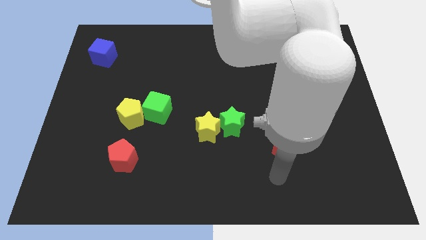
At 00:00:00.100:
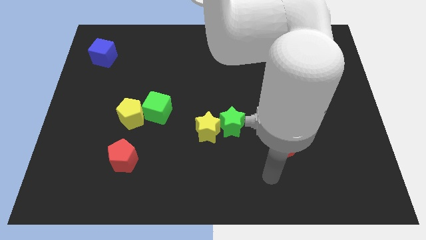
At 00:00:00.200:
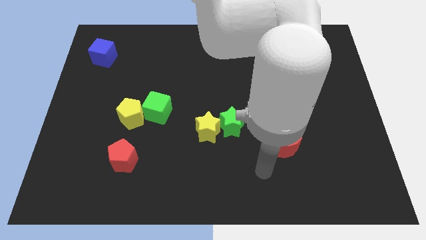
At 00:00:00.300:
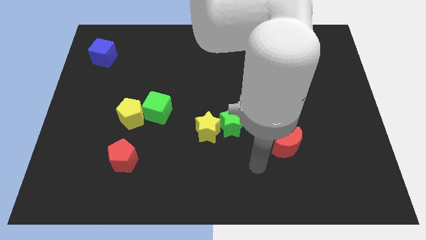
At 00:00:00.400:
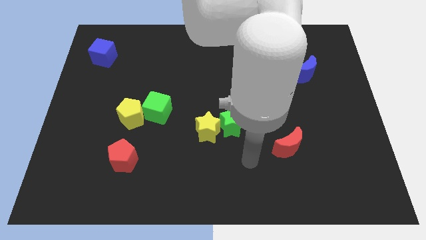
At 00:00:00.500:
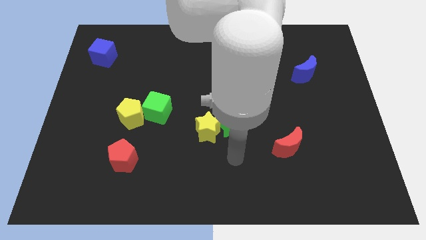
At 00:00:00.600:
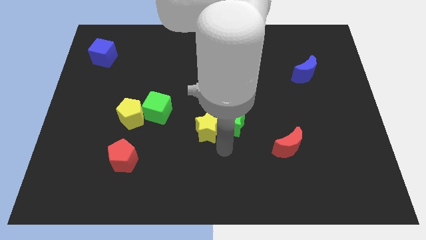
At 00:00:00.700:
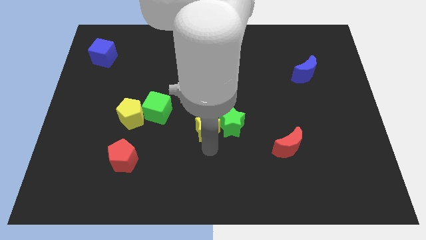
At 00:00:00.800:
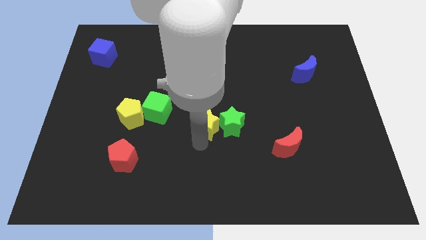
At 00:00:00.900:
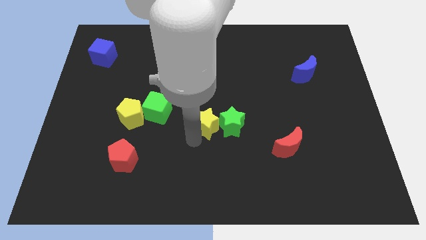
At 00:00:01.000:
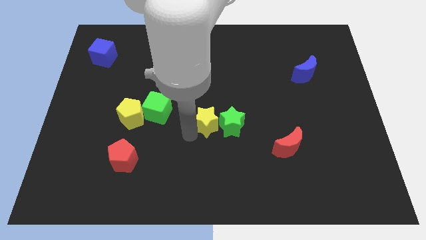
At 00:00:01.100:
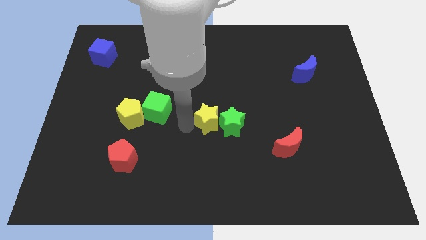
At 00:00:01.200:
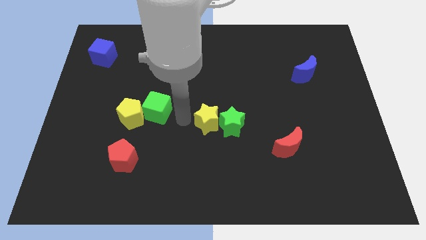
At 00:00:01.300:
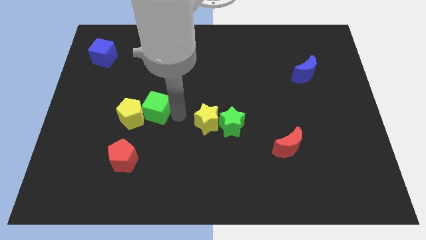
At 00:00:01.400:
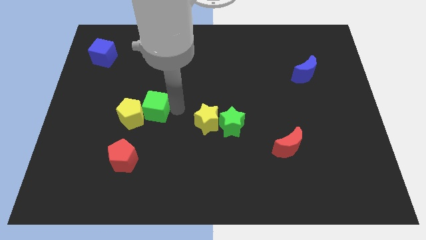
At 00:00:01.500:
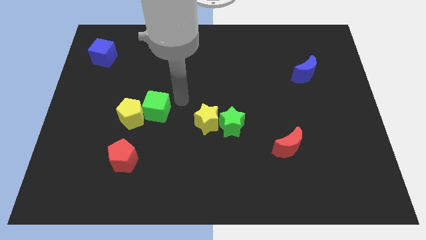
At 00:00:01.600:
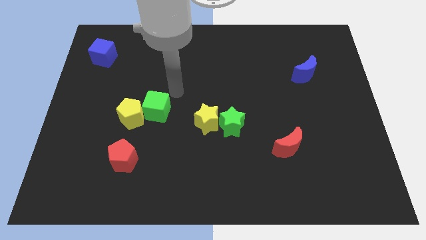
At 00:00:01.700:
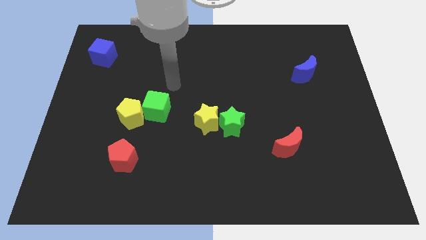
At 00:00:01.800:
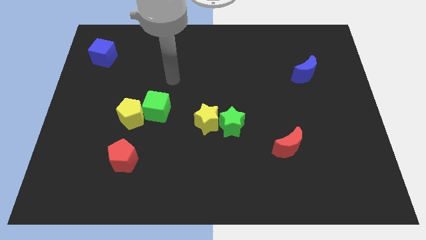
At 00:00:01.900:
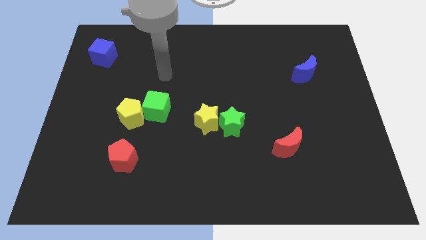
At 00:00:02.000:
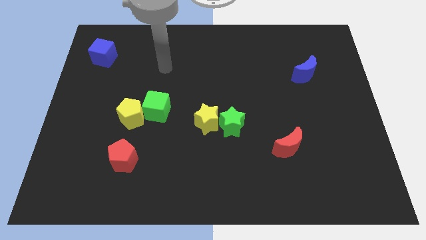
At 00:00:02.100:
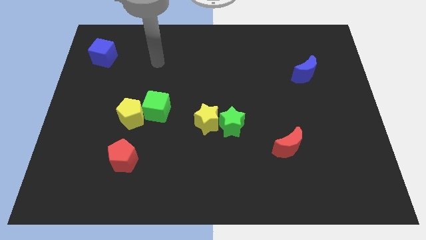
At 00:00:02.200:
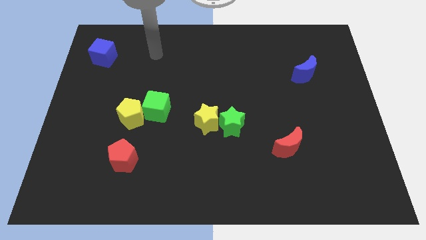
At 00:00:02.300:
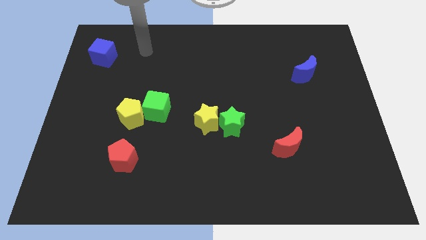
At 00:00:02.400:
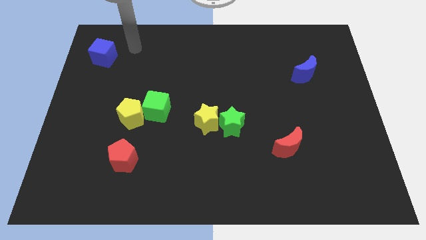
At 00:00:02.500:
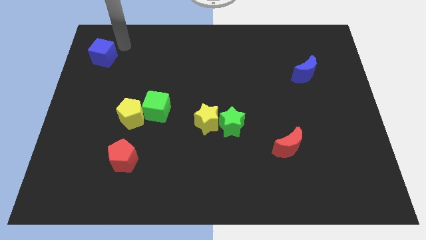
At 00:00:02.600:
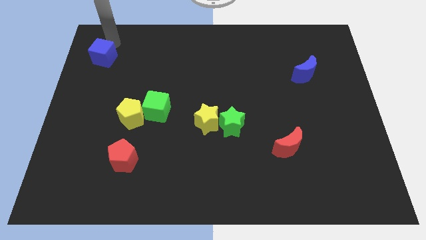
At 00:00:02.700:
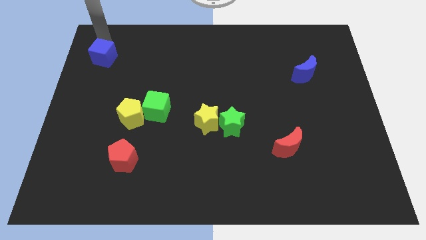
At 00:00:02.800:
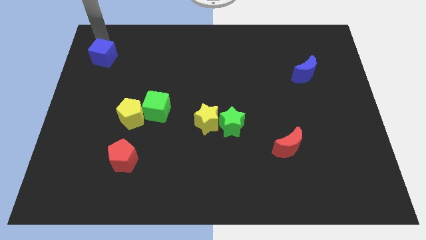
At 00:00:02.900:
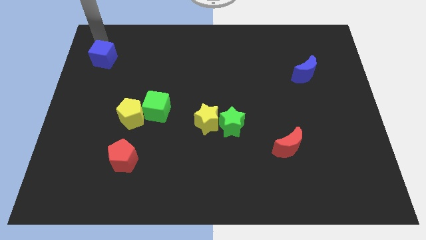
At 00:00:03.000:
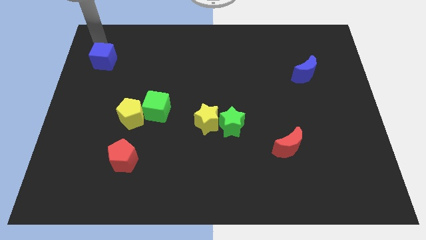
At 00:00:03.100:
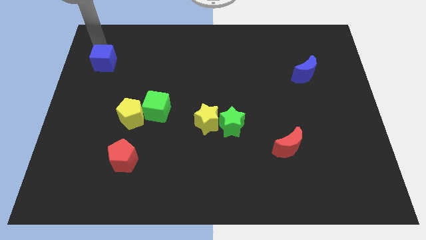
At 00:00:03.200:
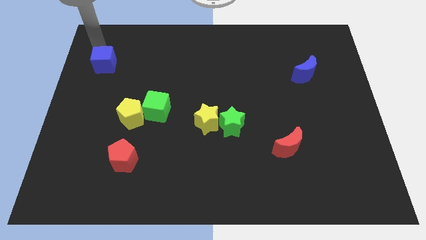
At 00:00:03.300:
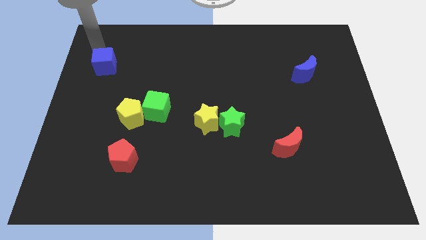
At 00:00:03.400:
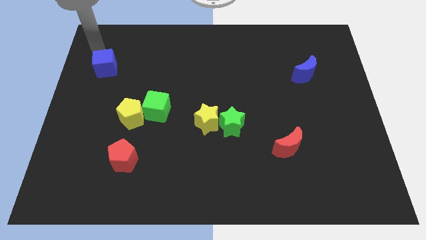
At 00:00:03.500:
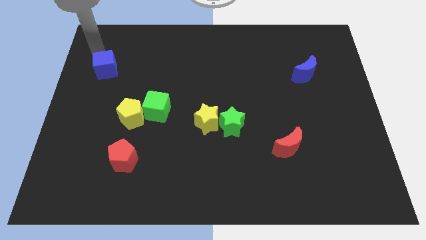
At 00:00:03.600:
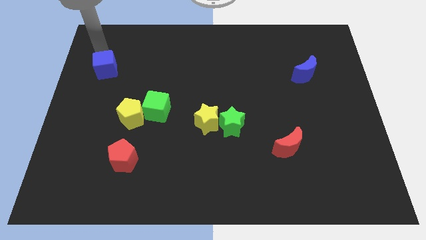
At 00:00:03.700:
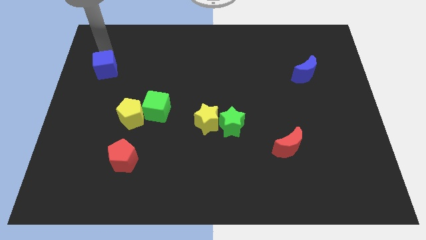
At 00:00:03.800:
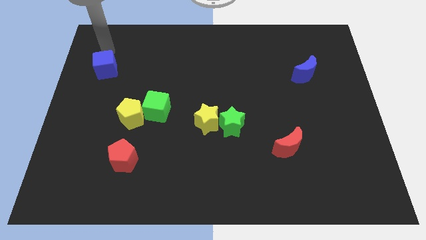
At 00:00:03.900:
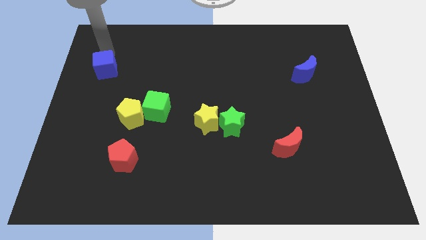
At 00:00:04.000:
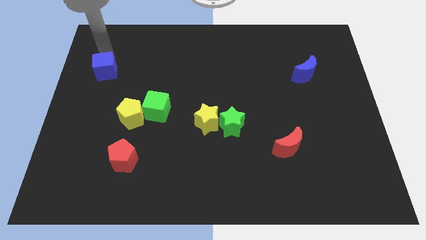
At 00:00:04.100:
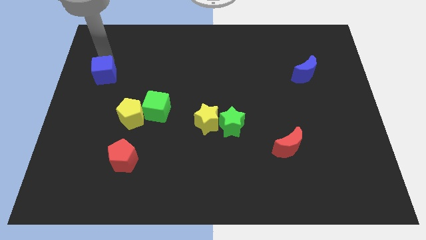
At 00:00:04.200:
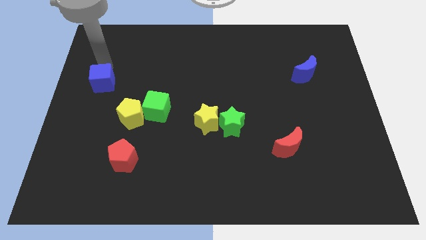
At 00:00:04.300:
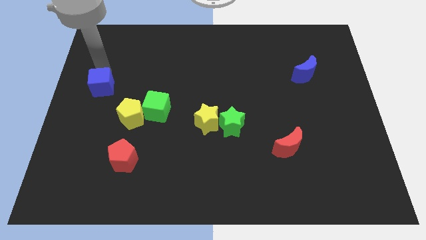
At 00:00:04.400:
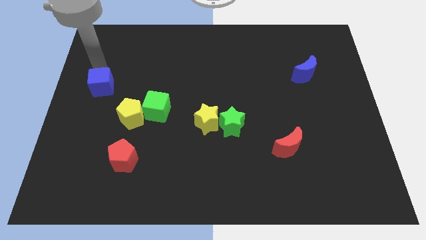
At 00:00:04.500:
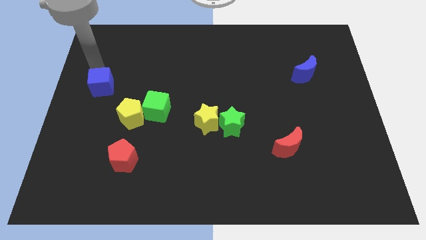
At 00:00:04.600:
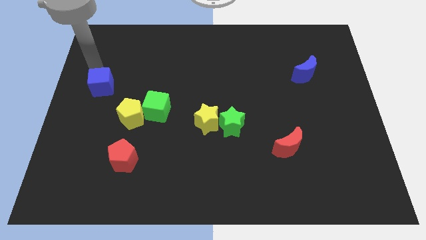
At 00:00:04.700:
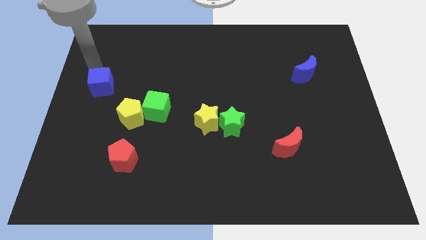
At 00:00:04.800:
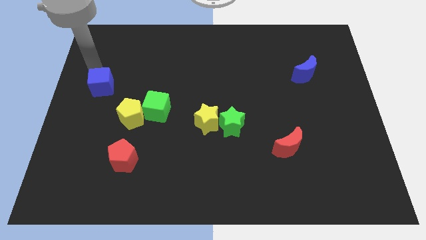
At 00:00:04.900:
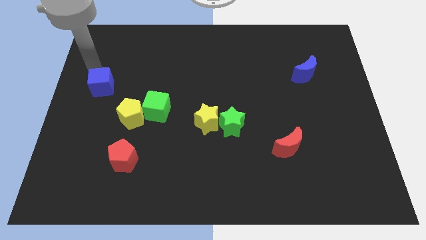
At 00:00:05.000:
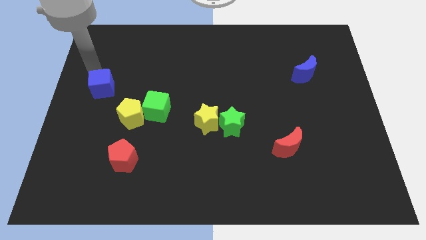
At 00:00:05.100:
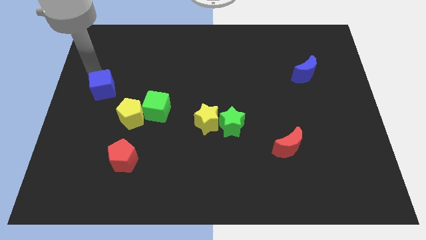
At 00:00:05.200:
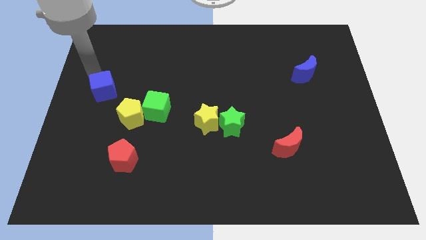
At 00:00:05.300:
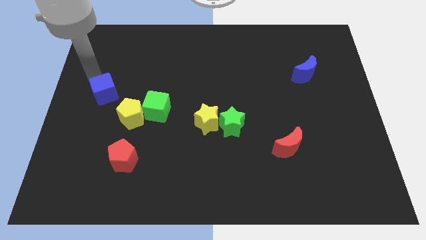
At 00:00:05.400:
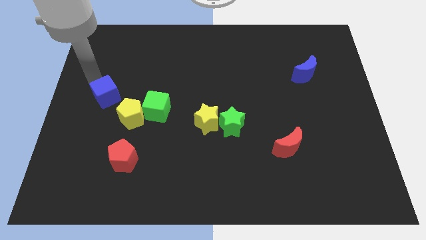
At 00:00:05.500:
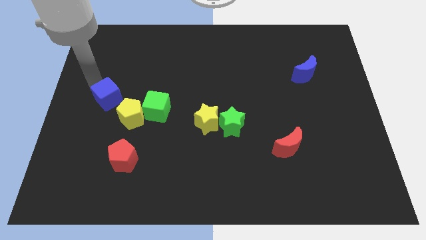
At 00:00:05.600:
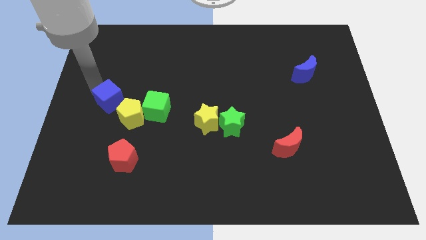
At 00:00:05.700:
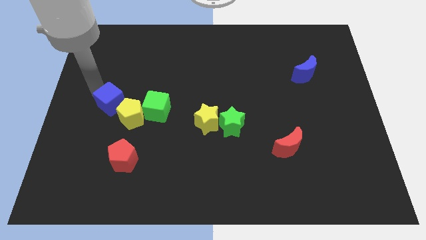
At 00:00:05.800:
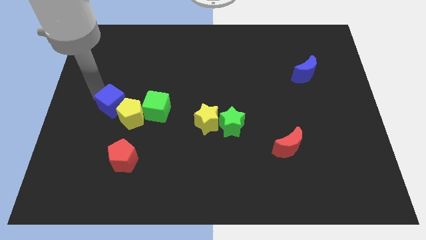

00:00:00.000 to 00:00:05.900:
push the blue cube to the yellow pentagon

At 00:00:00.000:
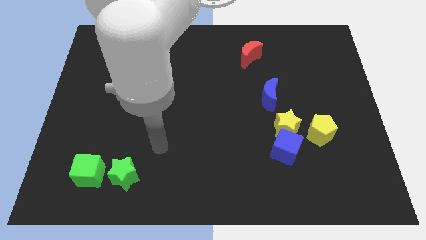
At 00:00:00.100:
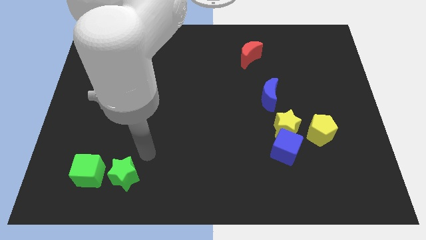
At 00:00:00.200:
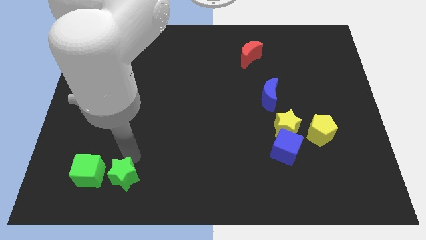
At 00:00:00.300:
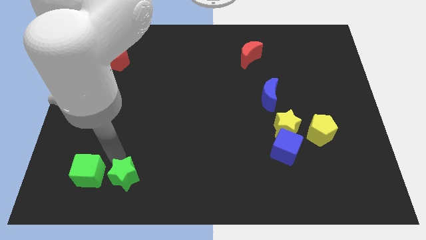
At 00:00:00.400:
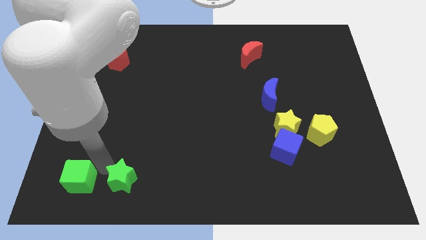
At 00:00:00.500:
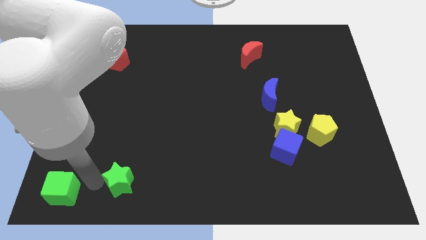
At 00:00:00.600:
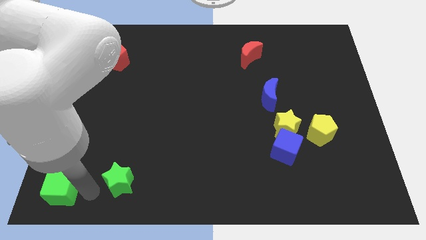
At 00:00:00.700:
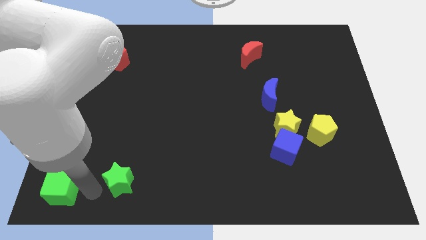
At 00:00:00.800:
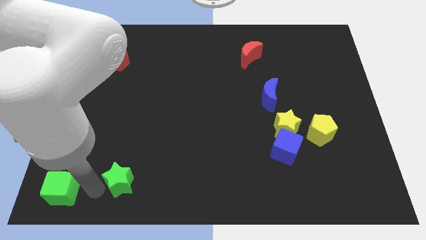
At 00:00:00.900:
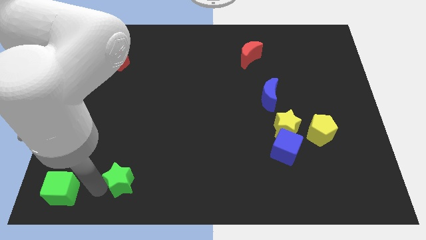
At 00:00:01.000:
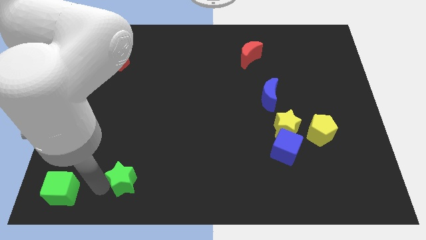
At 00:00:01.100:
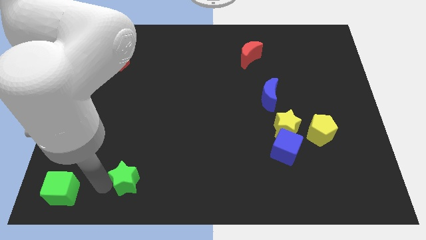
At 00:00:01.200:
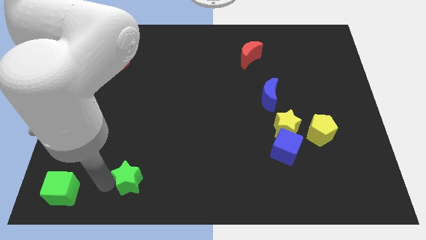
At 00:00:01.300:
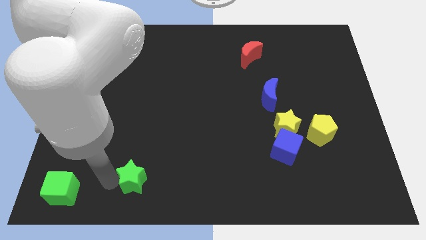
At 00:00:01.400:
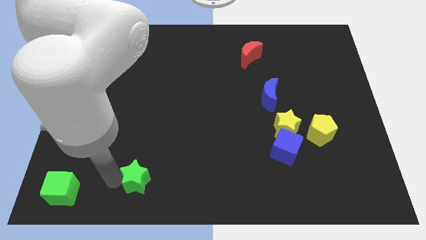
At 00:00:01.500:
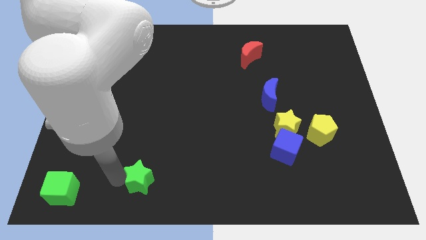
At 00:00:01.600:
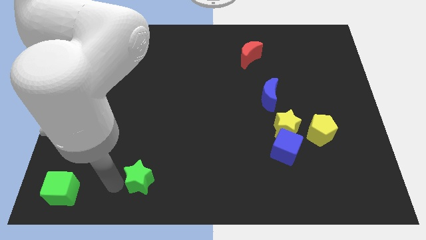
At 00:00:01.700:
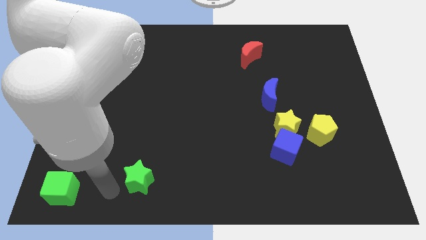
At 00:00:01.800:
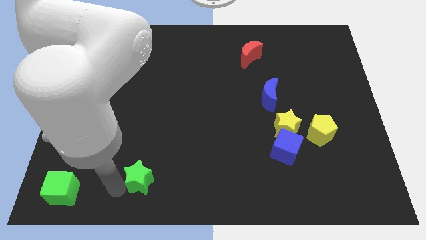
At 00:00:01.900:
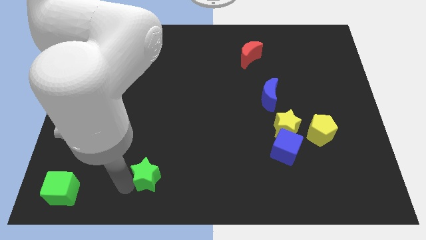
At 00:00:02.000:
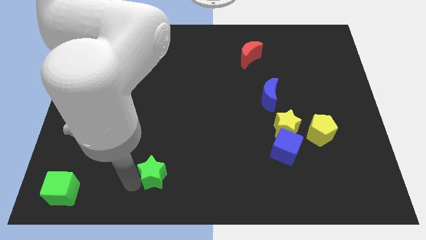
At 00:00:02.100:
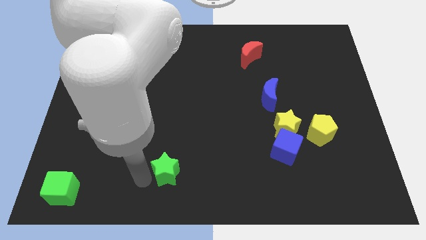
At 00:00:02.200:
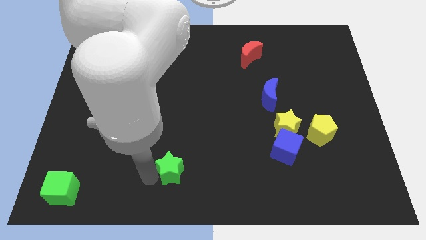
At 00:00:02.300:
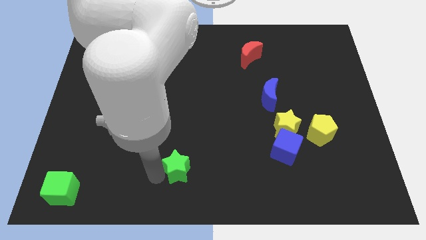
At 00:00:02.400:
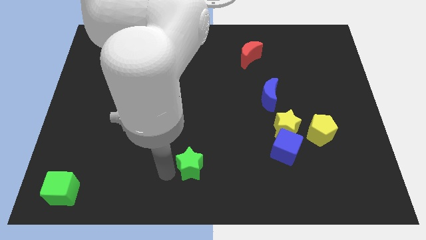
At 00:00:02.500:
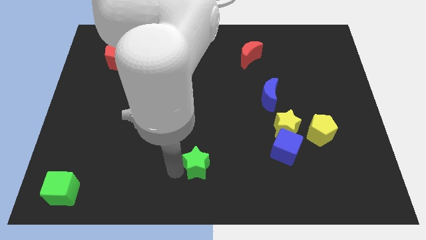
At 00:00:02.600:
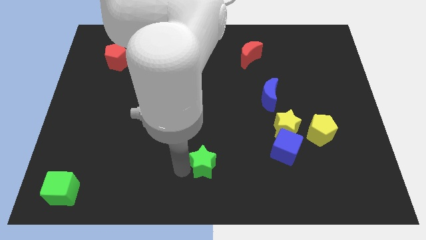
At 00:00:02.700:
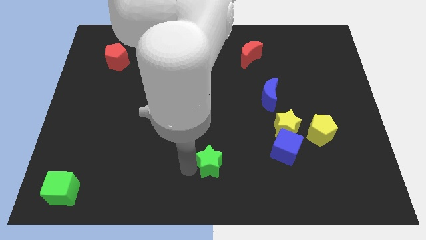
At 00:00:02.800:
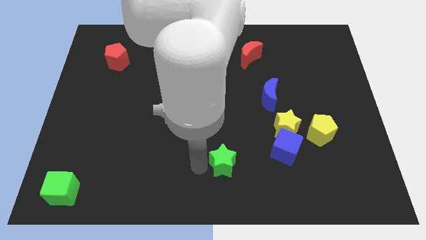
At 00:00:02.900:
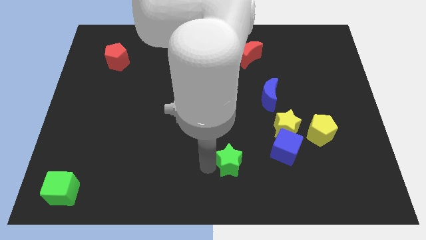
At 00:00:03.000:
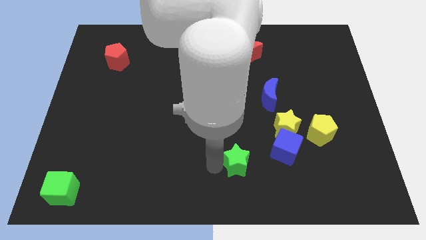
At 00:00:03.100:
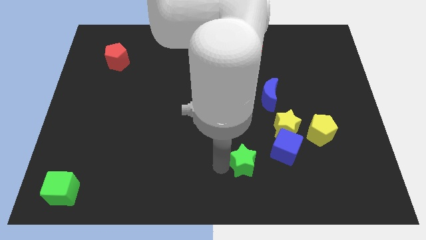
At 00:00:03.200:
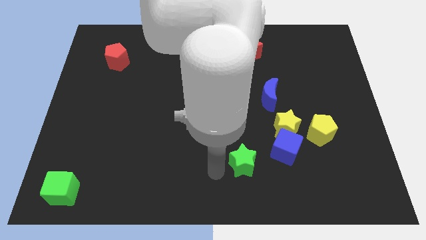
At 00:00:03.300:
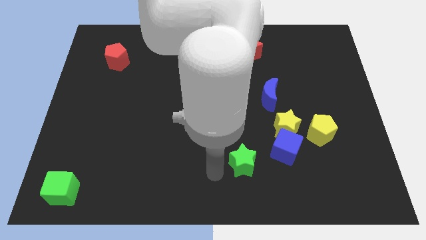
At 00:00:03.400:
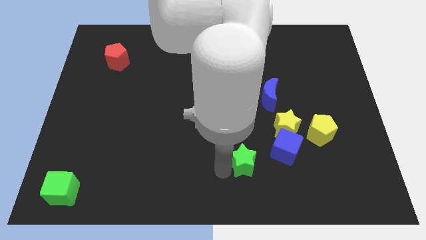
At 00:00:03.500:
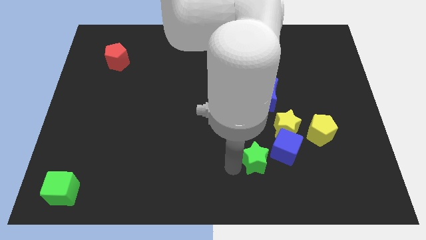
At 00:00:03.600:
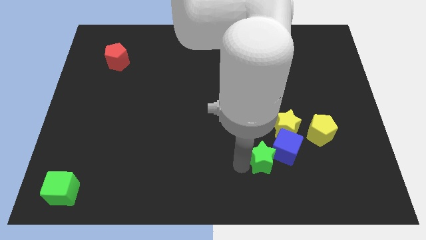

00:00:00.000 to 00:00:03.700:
put the green star close to the blue cube
